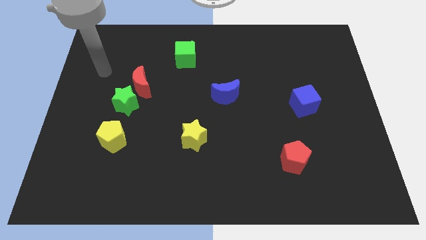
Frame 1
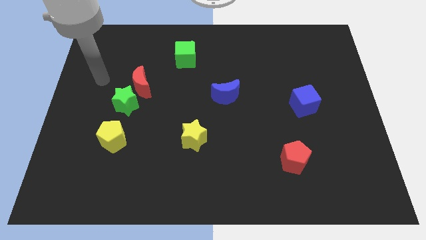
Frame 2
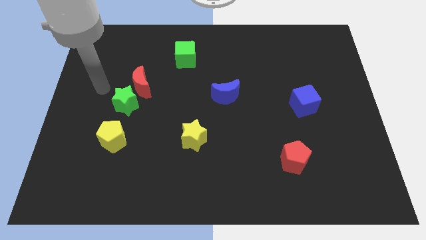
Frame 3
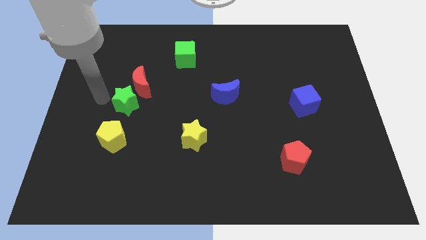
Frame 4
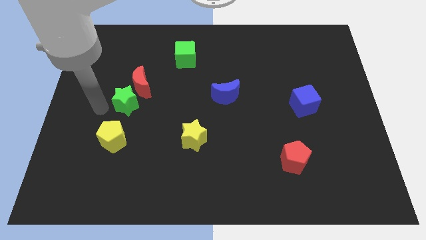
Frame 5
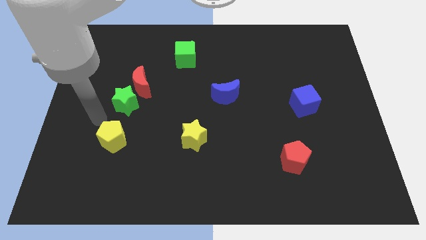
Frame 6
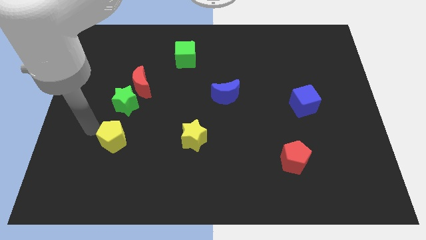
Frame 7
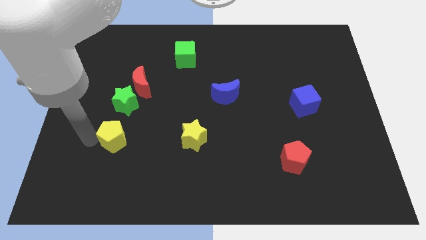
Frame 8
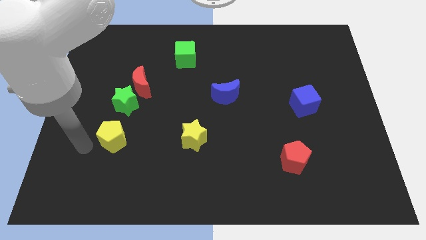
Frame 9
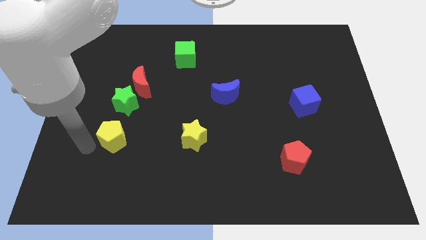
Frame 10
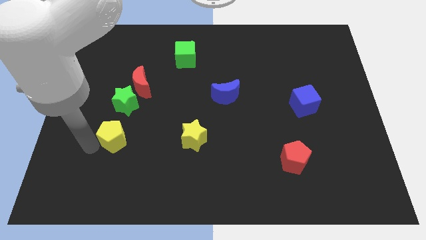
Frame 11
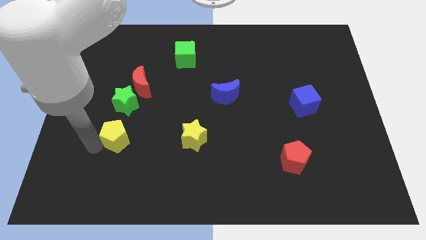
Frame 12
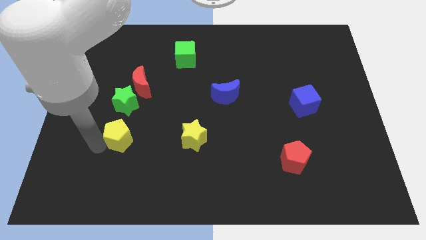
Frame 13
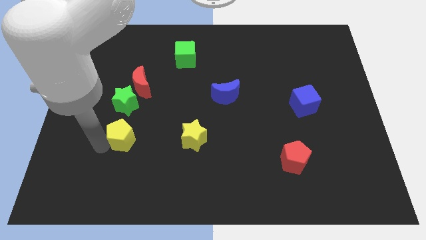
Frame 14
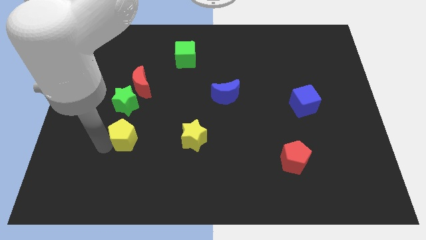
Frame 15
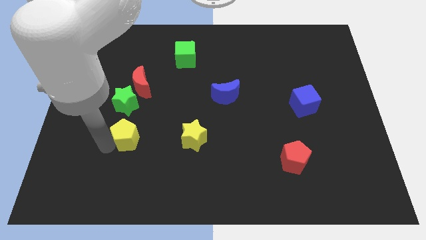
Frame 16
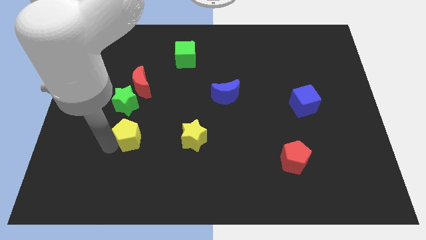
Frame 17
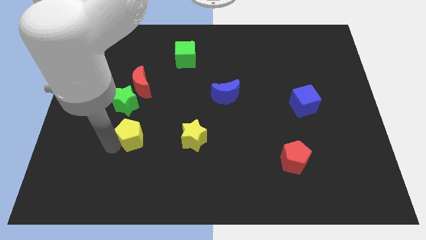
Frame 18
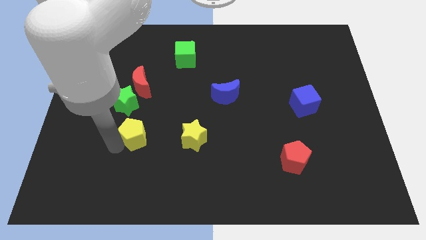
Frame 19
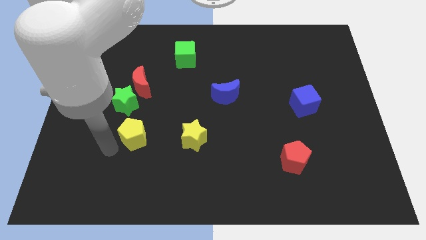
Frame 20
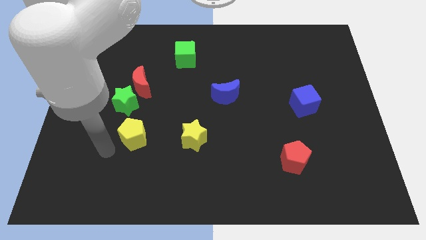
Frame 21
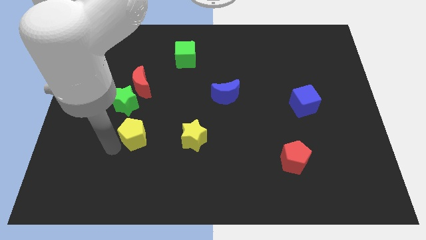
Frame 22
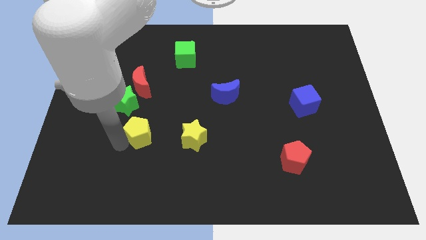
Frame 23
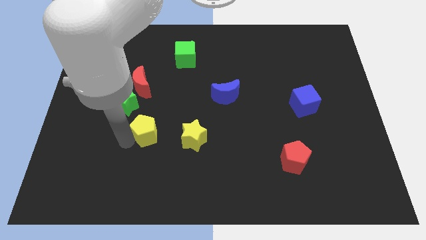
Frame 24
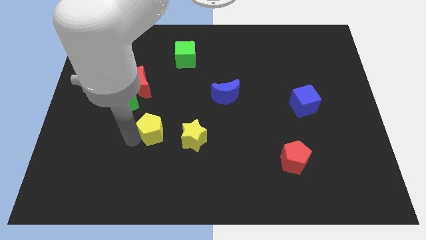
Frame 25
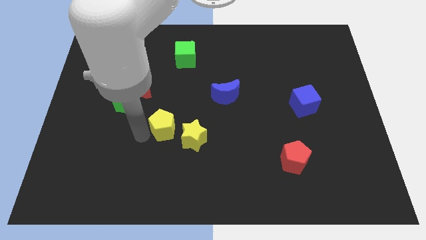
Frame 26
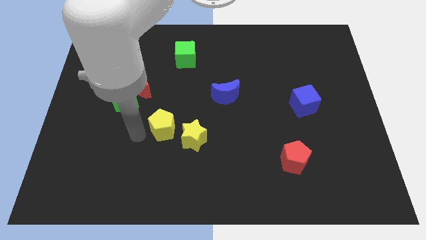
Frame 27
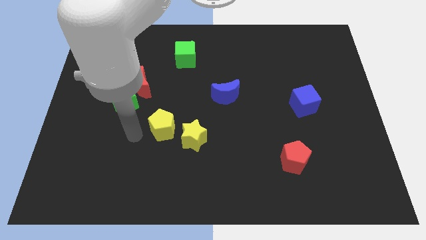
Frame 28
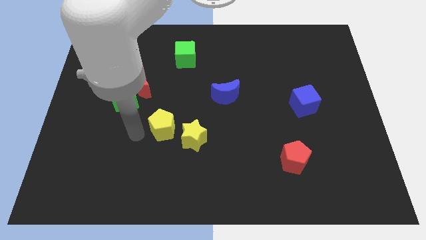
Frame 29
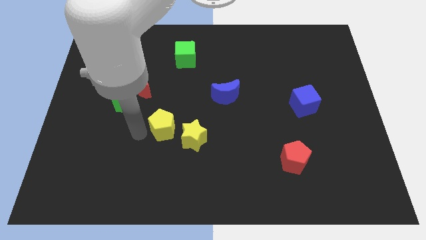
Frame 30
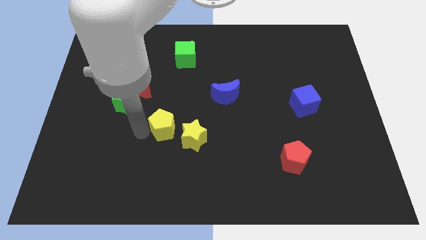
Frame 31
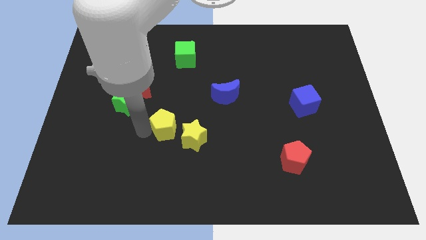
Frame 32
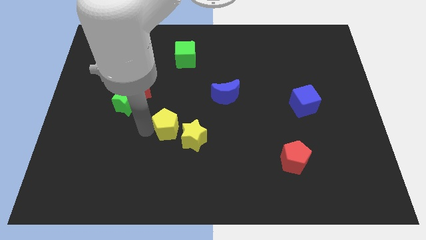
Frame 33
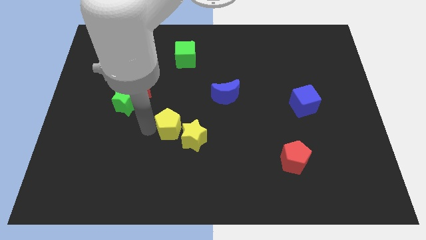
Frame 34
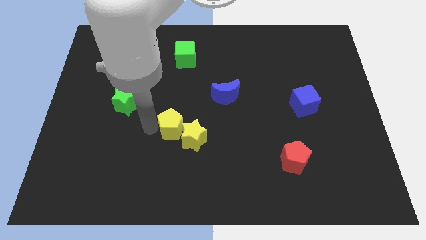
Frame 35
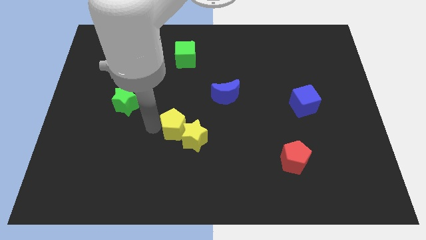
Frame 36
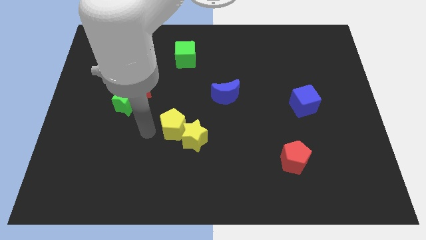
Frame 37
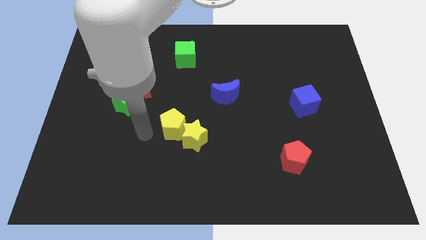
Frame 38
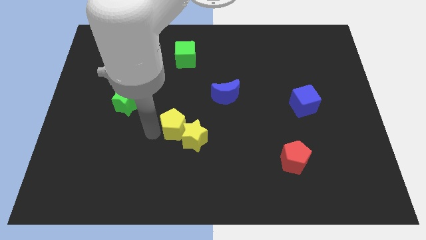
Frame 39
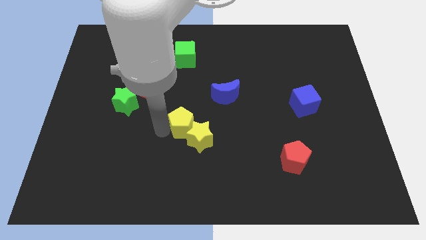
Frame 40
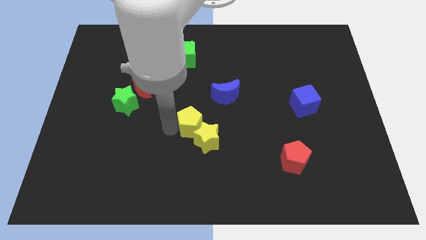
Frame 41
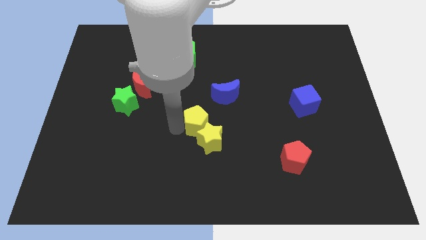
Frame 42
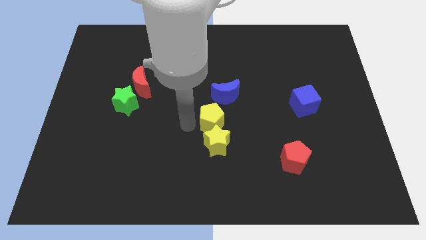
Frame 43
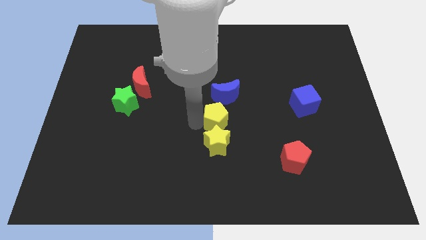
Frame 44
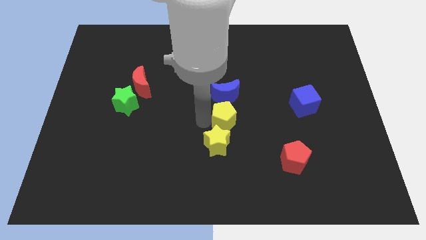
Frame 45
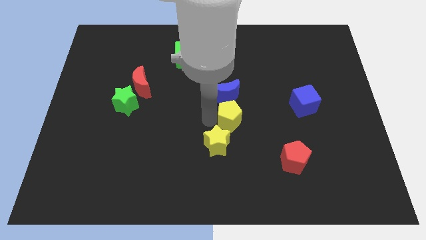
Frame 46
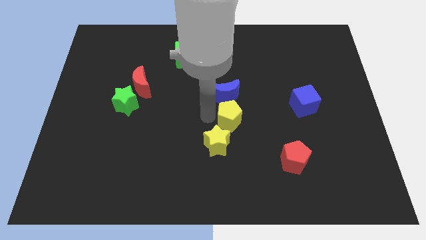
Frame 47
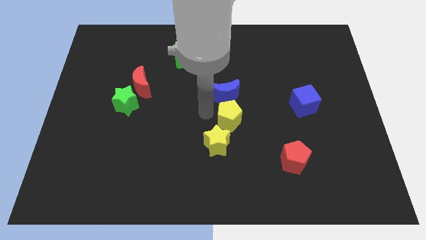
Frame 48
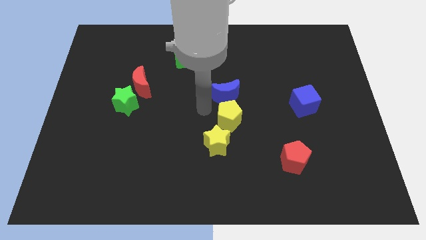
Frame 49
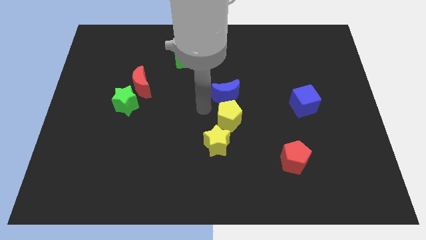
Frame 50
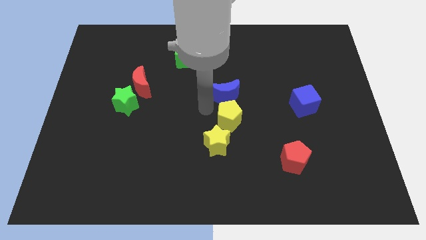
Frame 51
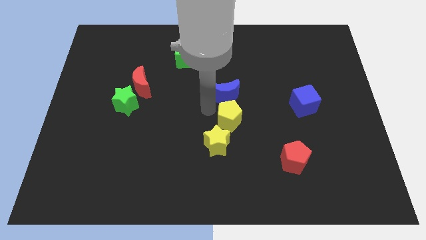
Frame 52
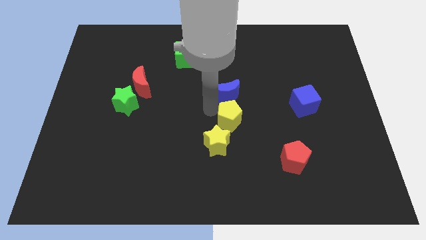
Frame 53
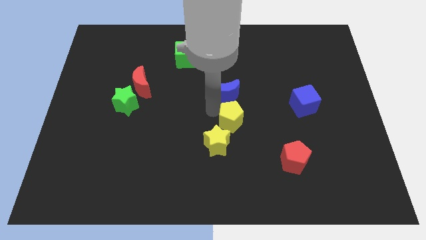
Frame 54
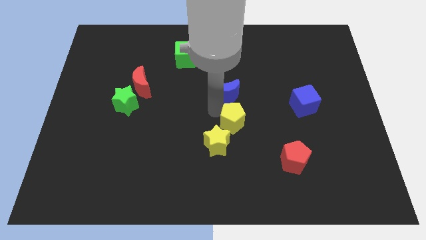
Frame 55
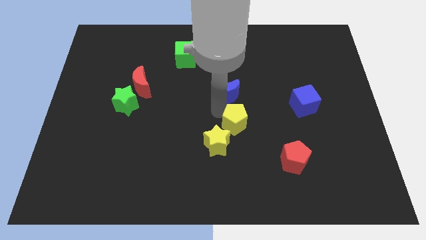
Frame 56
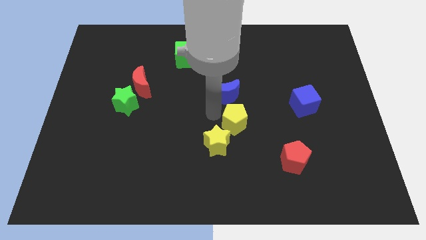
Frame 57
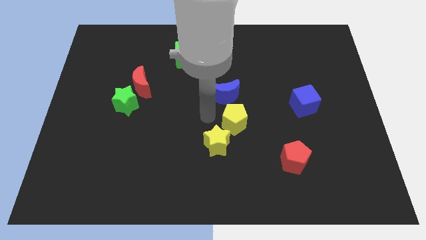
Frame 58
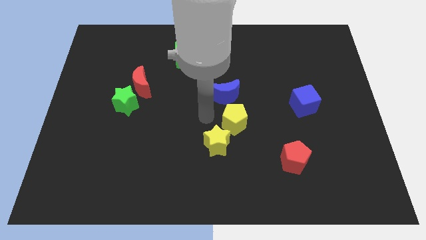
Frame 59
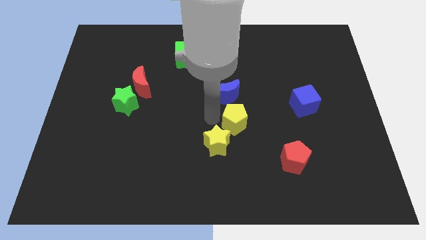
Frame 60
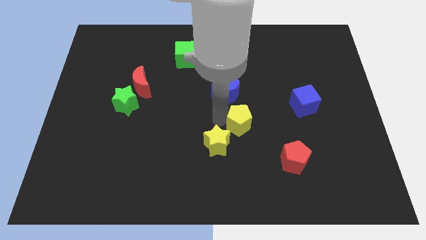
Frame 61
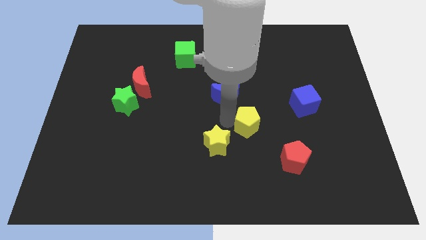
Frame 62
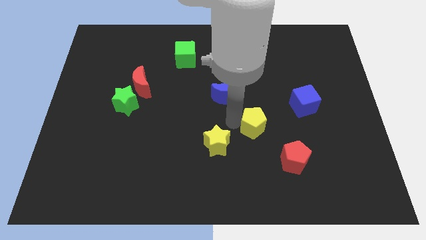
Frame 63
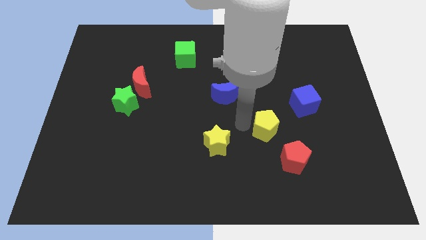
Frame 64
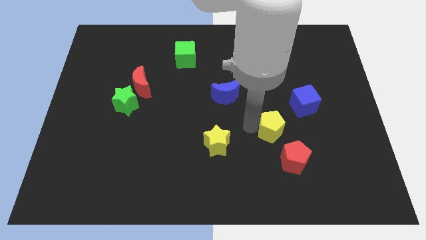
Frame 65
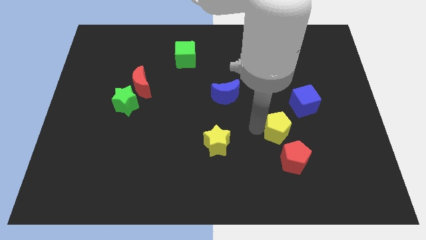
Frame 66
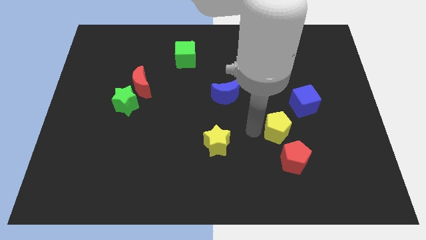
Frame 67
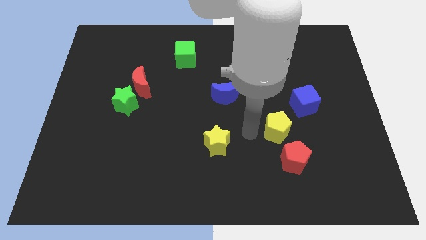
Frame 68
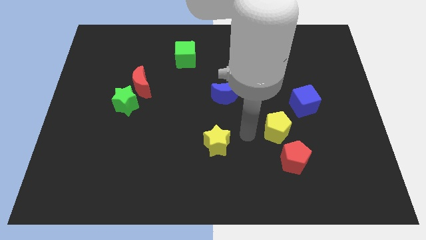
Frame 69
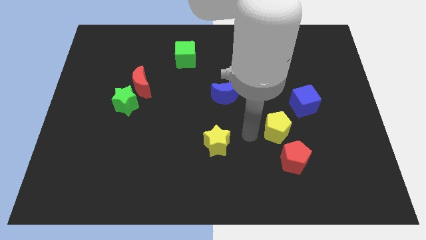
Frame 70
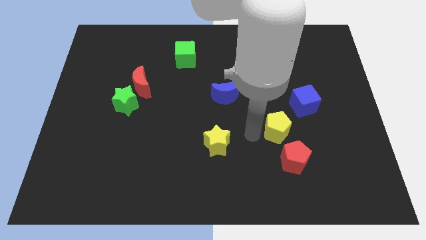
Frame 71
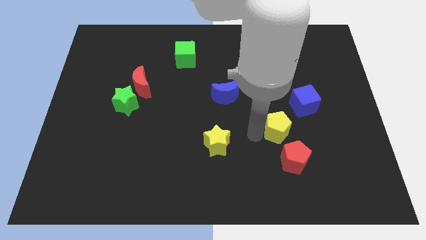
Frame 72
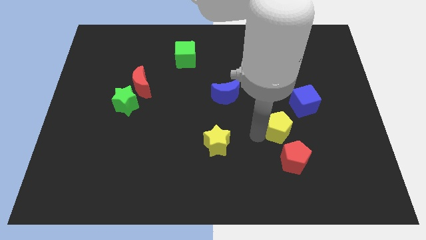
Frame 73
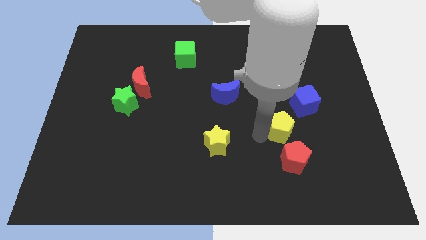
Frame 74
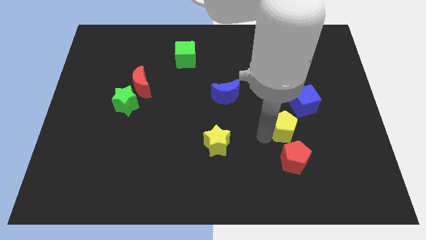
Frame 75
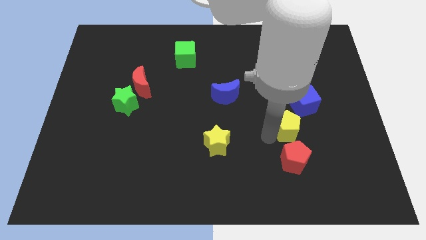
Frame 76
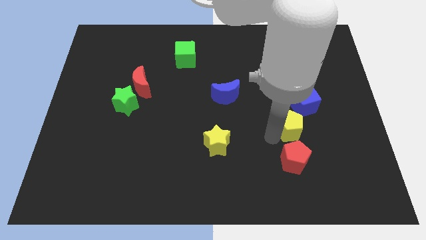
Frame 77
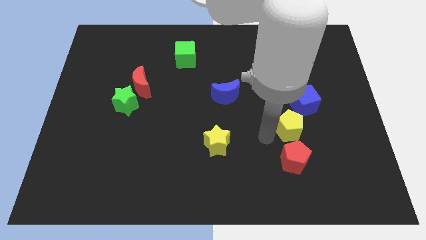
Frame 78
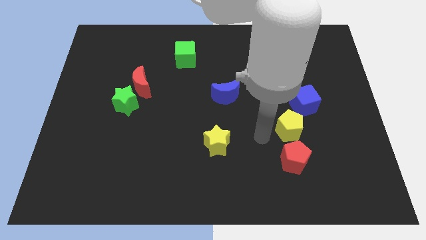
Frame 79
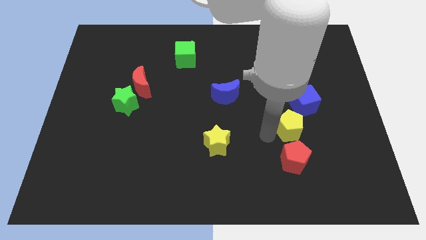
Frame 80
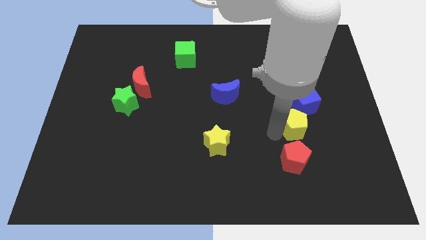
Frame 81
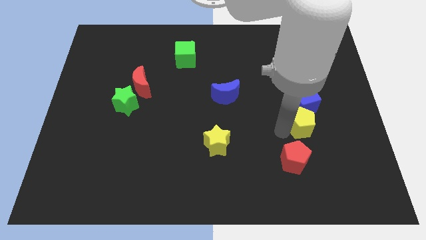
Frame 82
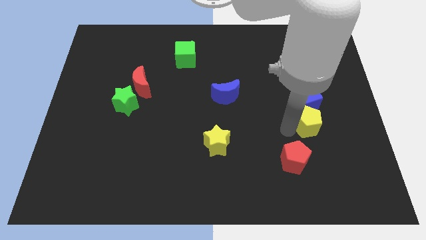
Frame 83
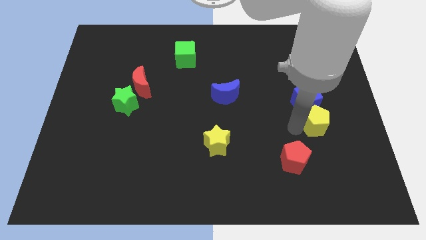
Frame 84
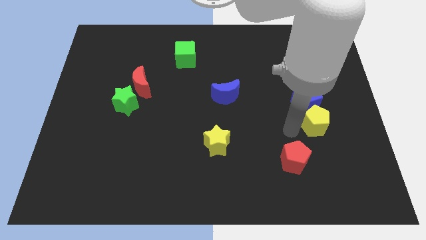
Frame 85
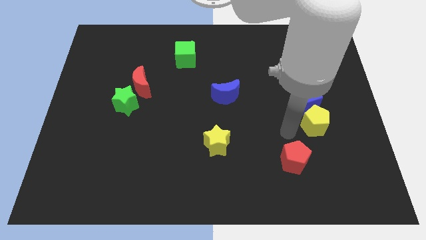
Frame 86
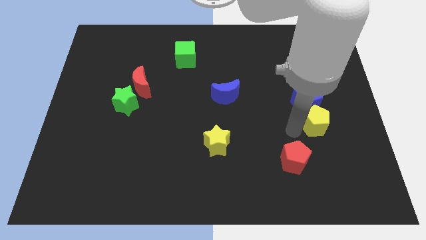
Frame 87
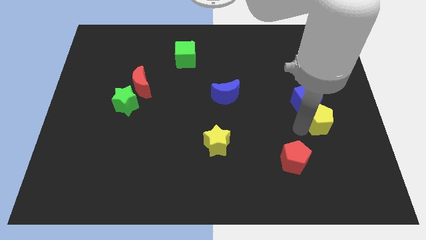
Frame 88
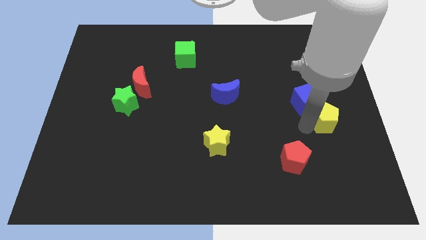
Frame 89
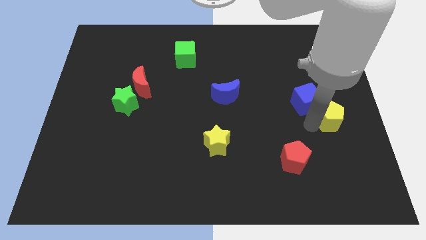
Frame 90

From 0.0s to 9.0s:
slide the yellow pentagon to the right side
